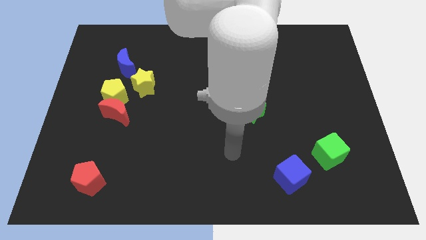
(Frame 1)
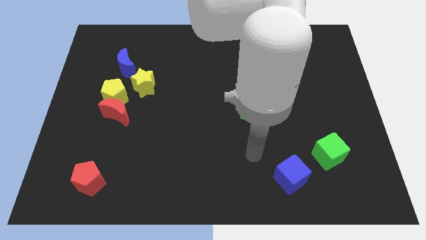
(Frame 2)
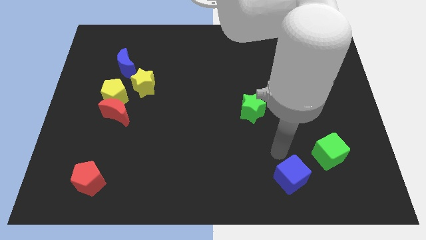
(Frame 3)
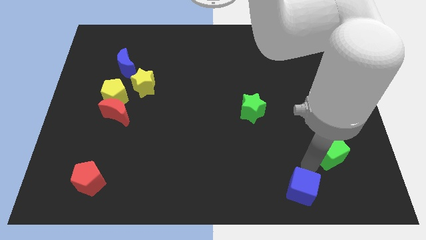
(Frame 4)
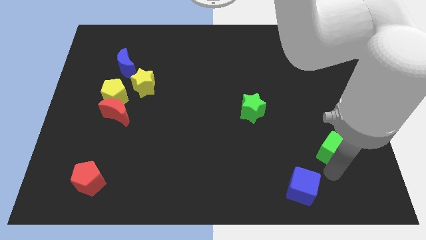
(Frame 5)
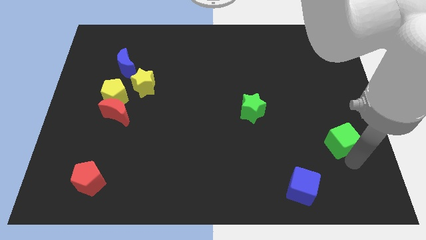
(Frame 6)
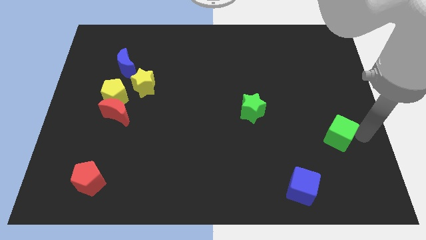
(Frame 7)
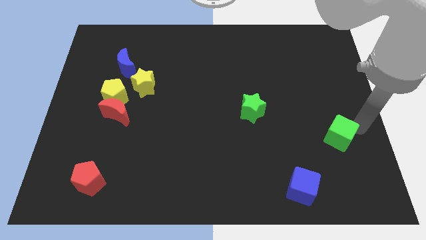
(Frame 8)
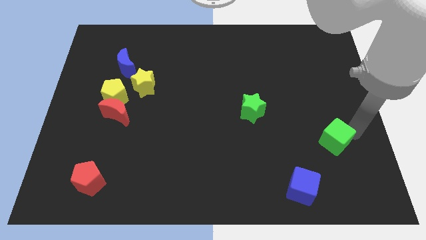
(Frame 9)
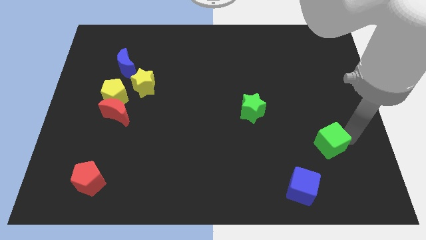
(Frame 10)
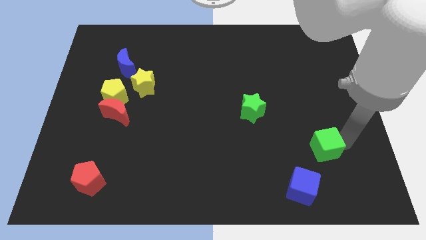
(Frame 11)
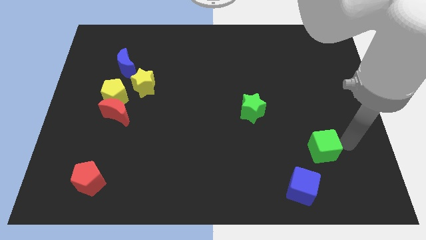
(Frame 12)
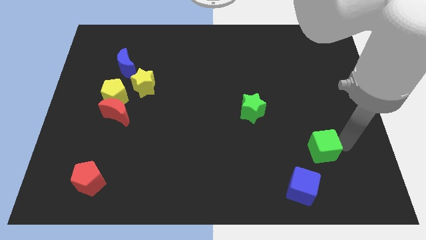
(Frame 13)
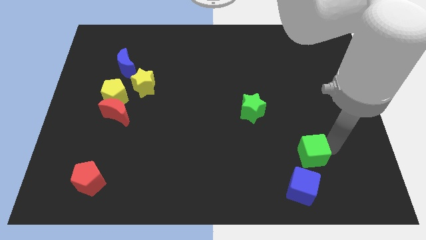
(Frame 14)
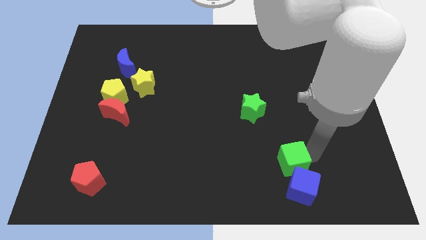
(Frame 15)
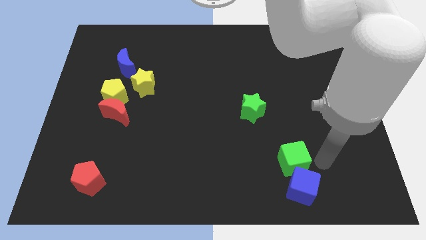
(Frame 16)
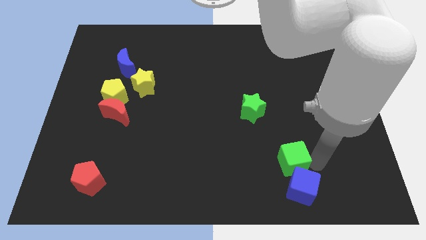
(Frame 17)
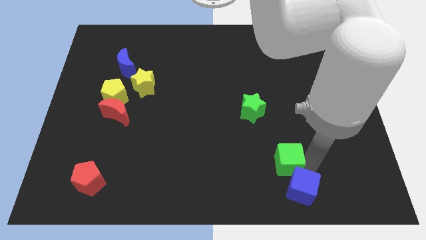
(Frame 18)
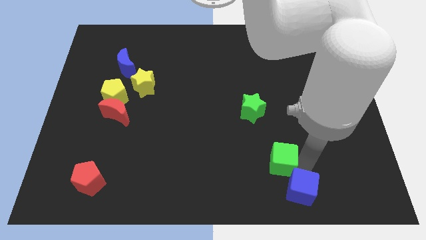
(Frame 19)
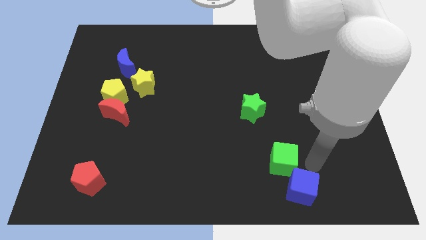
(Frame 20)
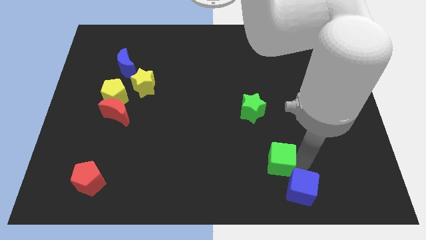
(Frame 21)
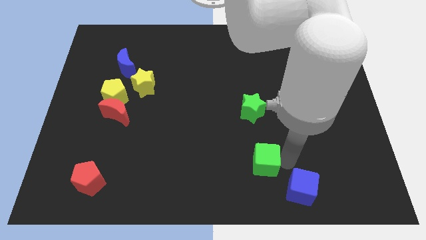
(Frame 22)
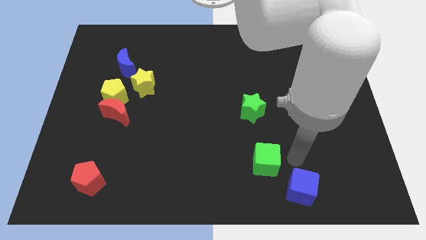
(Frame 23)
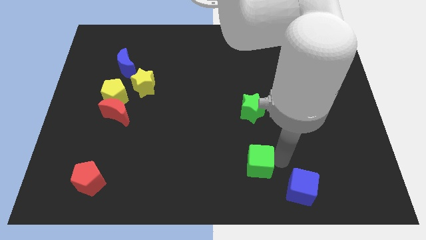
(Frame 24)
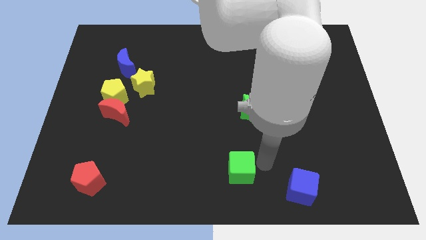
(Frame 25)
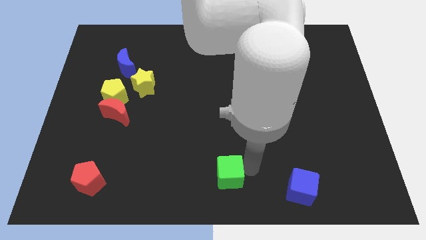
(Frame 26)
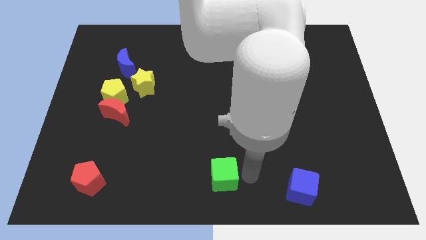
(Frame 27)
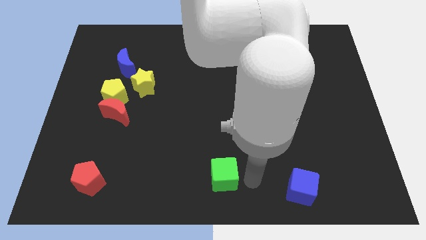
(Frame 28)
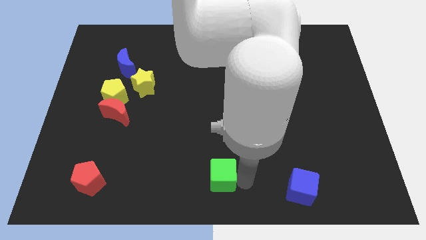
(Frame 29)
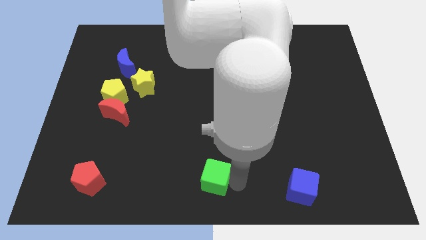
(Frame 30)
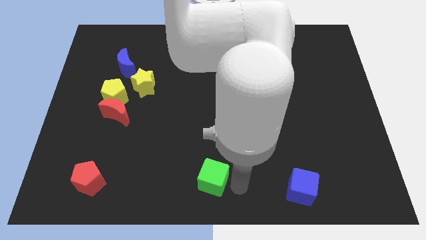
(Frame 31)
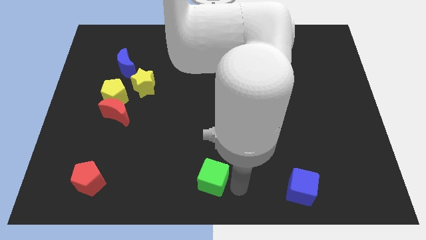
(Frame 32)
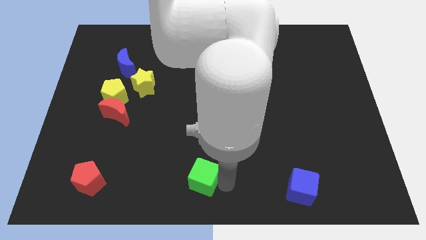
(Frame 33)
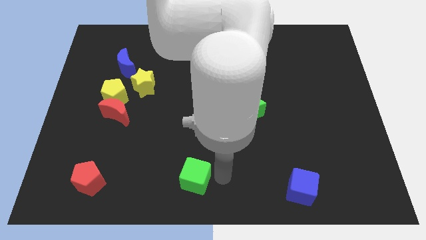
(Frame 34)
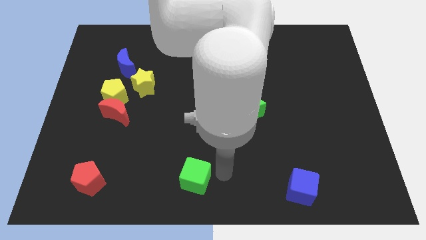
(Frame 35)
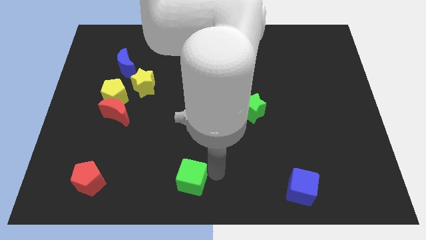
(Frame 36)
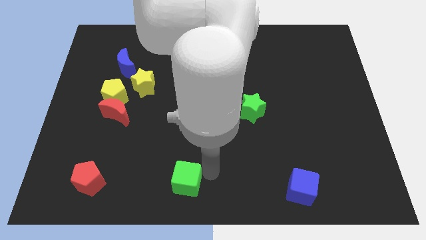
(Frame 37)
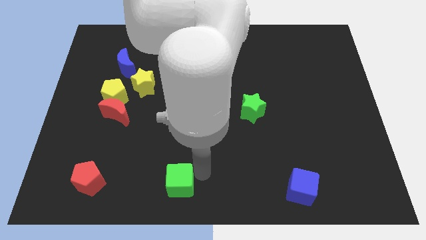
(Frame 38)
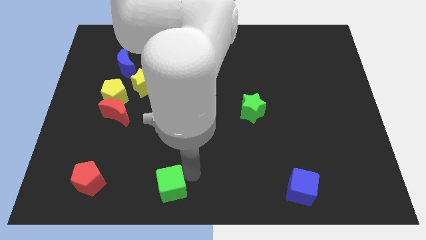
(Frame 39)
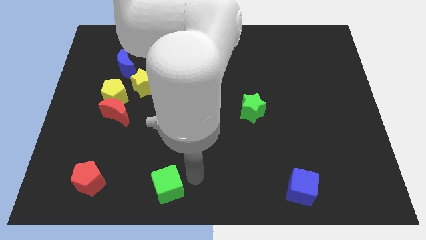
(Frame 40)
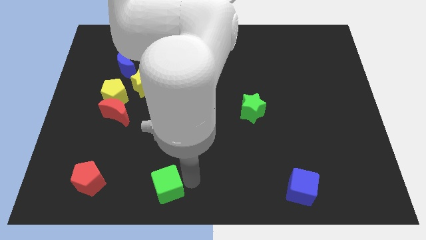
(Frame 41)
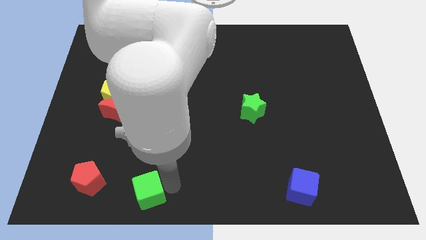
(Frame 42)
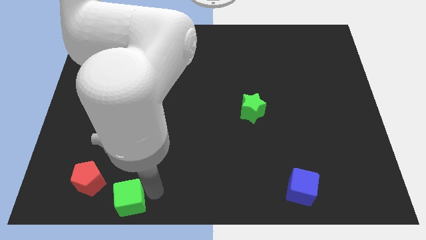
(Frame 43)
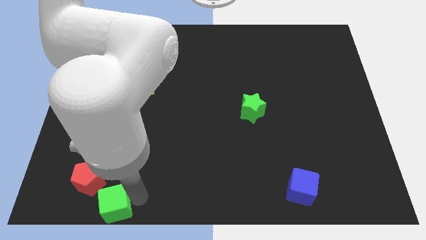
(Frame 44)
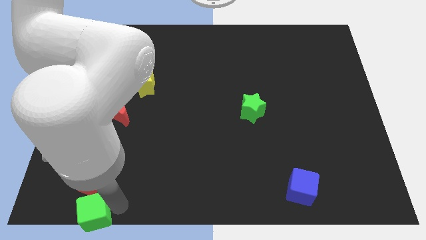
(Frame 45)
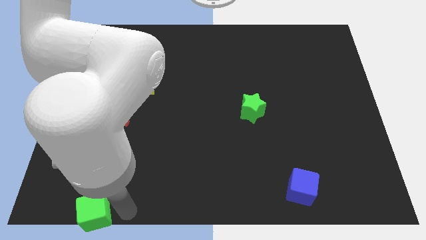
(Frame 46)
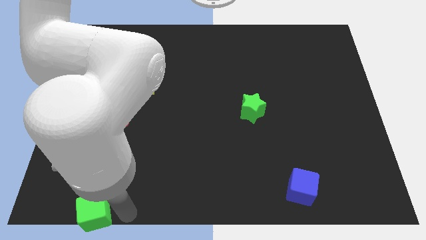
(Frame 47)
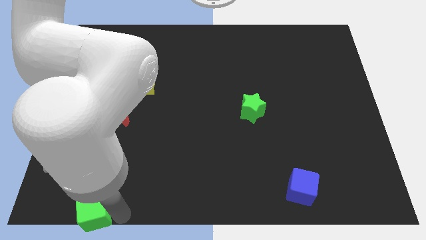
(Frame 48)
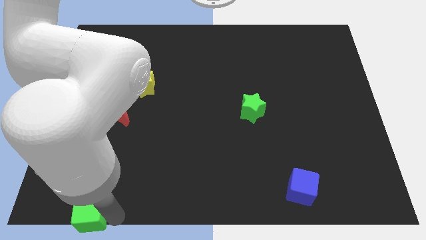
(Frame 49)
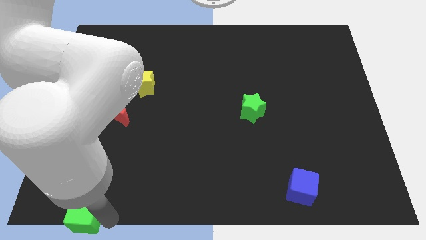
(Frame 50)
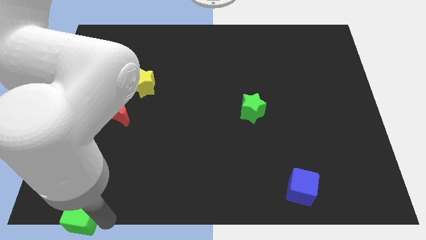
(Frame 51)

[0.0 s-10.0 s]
move the green cube to the bottom left

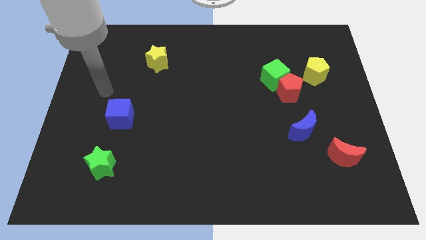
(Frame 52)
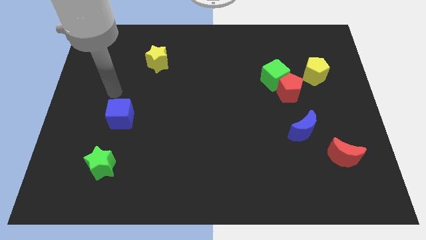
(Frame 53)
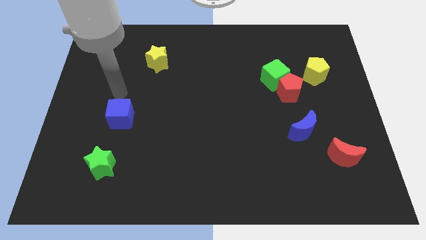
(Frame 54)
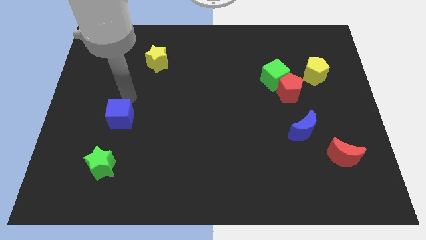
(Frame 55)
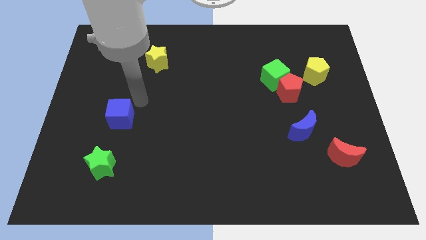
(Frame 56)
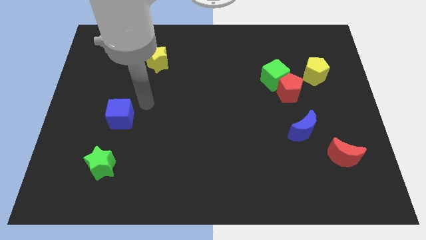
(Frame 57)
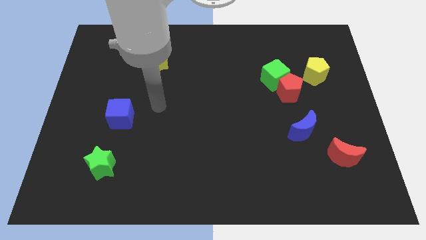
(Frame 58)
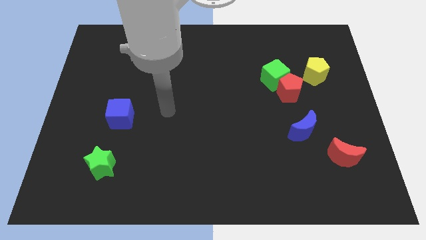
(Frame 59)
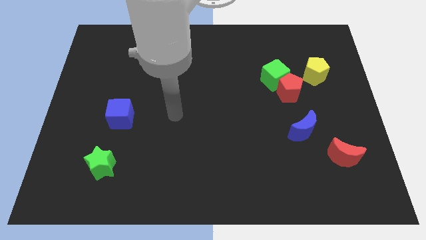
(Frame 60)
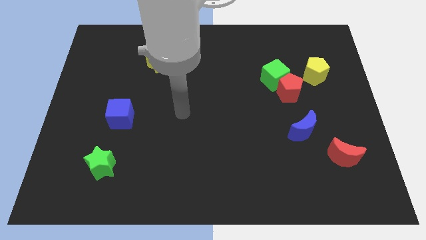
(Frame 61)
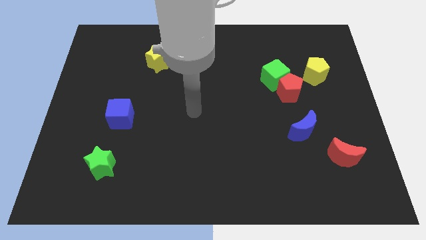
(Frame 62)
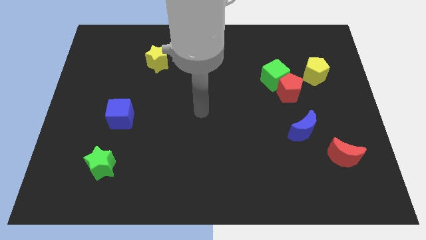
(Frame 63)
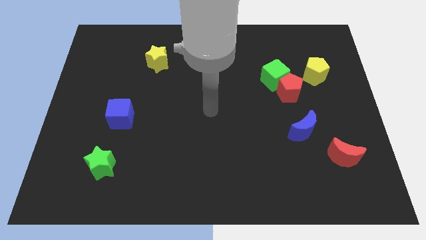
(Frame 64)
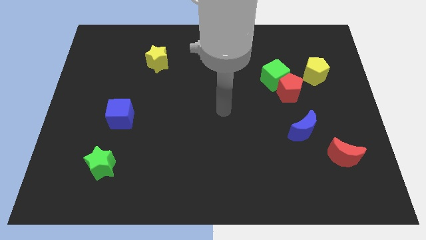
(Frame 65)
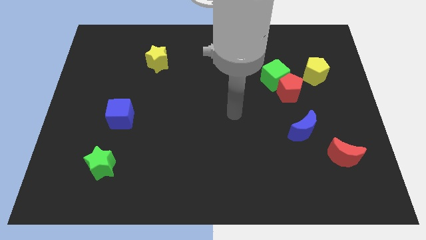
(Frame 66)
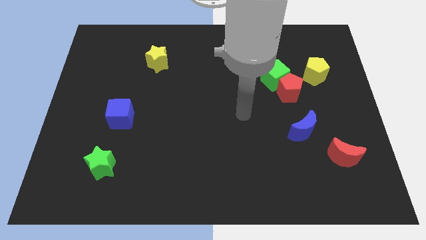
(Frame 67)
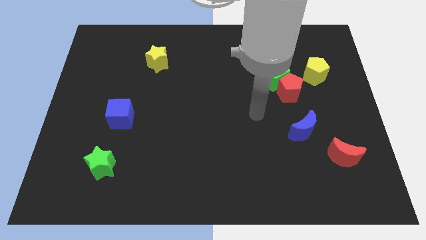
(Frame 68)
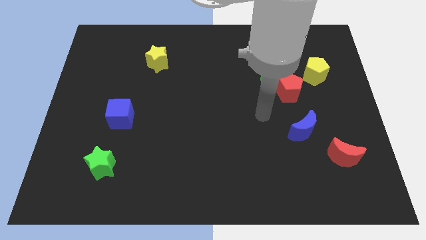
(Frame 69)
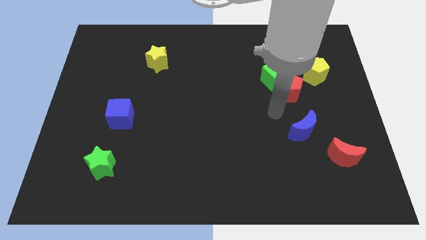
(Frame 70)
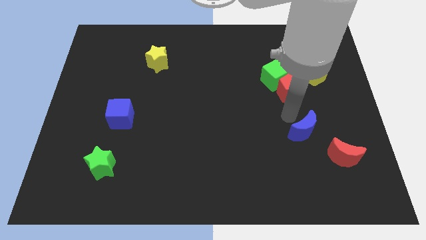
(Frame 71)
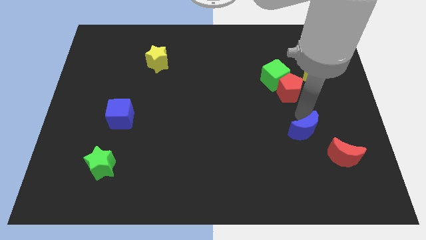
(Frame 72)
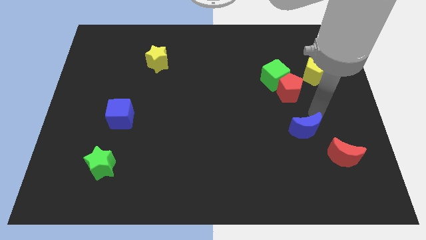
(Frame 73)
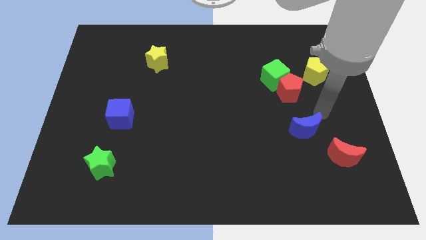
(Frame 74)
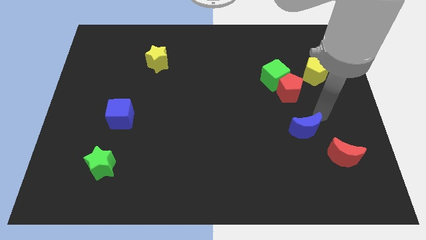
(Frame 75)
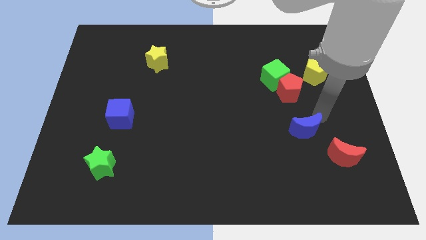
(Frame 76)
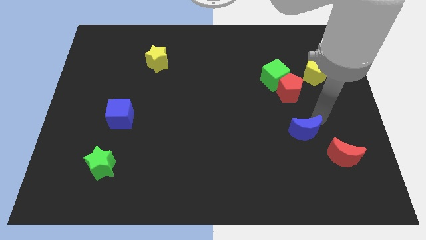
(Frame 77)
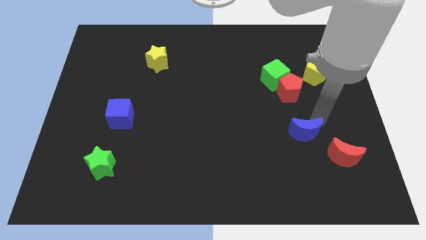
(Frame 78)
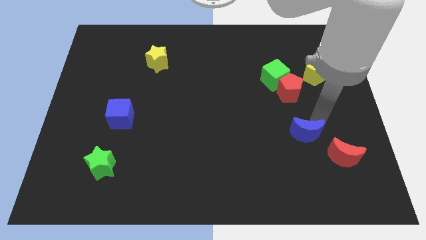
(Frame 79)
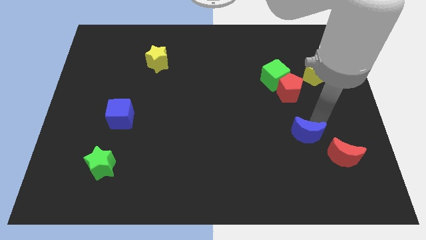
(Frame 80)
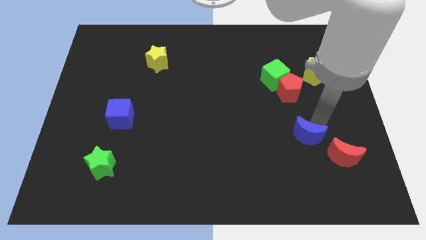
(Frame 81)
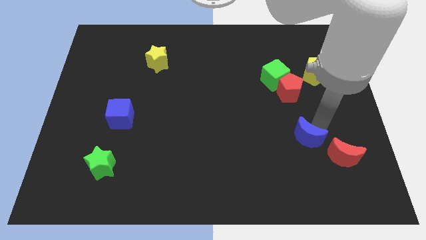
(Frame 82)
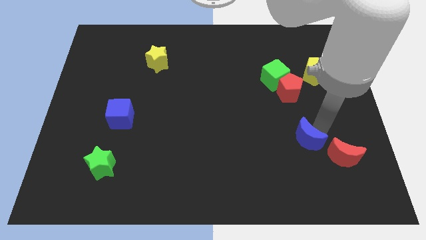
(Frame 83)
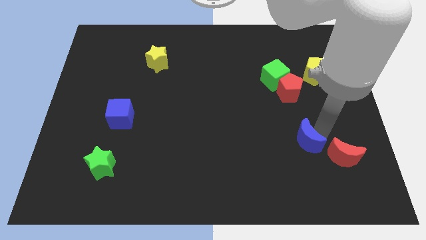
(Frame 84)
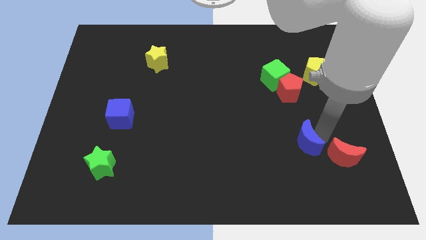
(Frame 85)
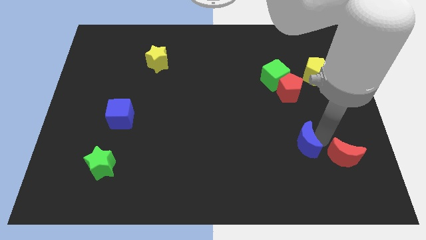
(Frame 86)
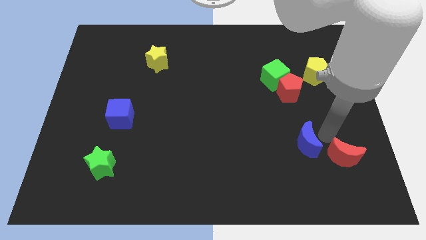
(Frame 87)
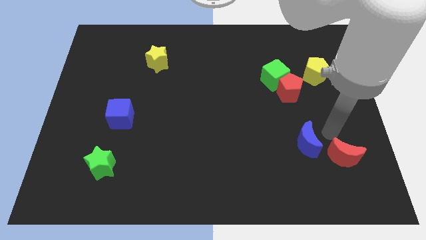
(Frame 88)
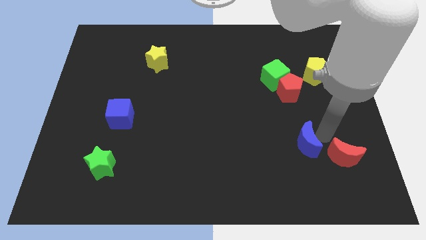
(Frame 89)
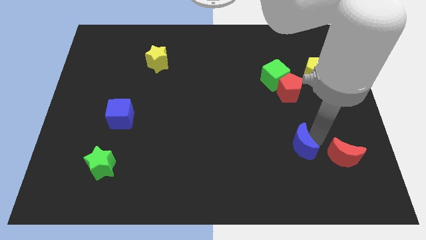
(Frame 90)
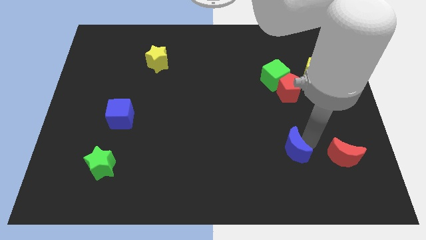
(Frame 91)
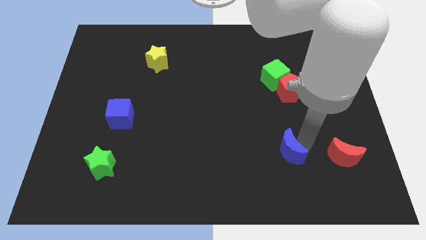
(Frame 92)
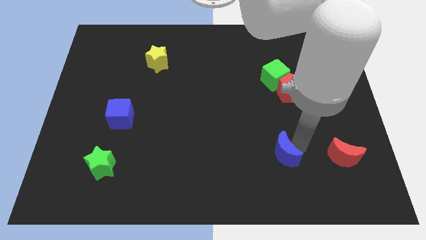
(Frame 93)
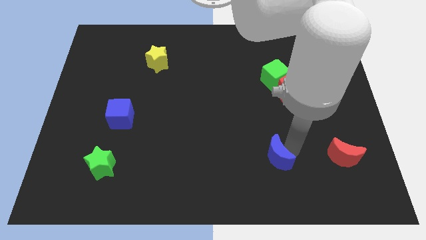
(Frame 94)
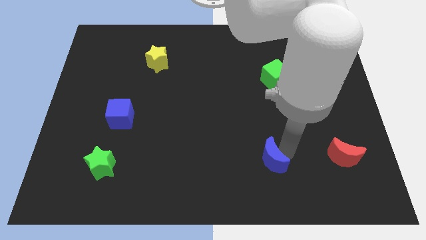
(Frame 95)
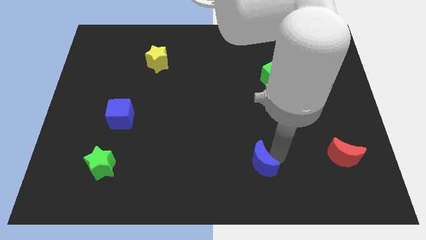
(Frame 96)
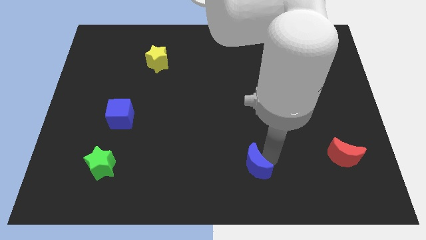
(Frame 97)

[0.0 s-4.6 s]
slide the blue moon to the bottom
